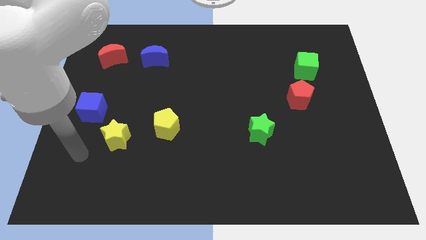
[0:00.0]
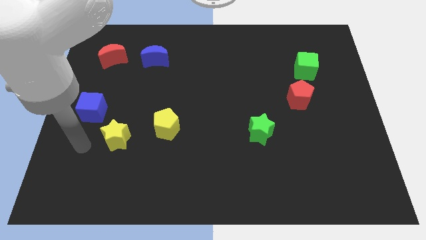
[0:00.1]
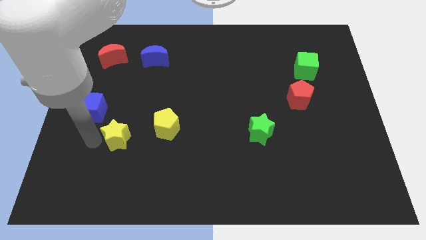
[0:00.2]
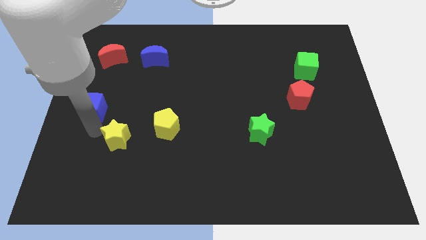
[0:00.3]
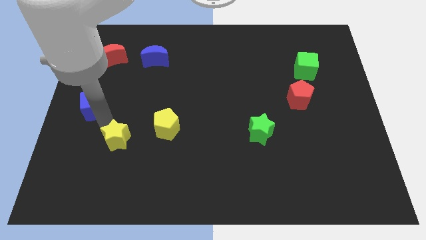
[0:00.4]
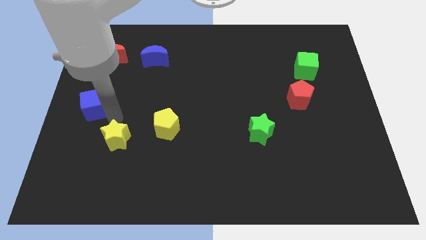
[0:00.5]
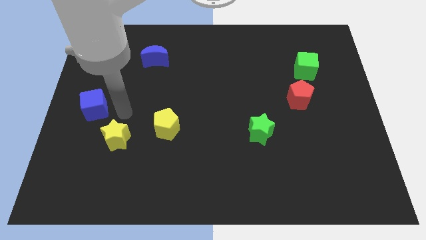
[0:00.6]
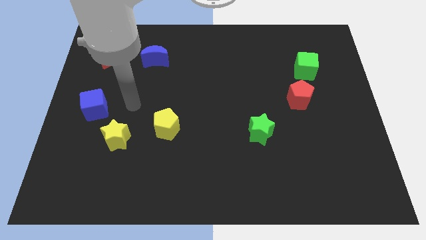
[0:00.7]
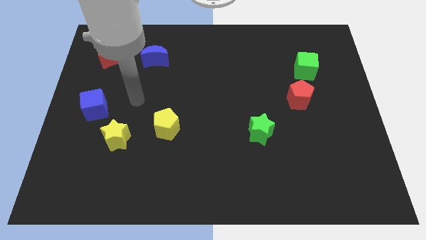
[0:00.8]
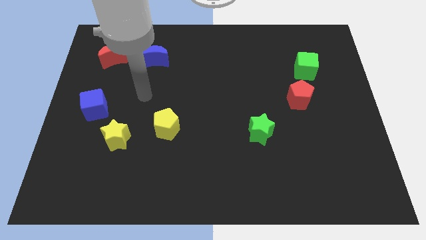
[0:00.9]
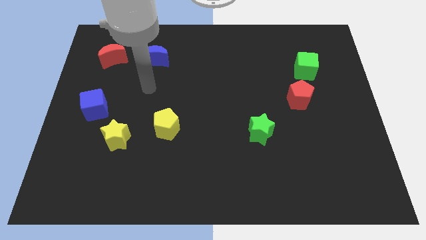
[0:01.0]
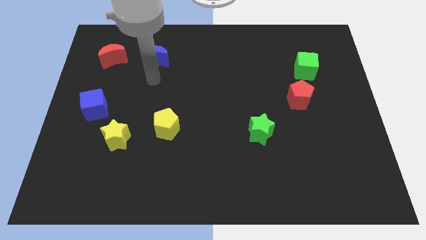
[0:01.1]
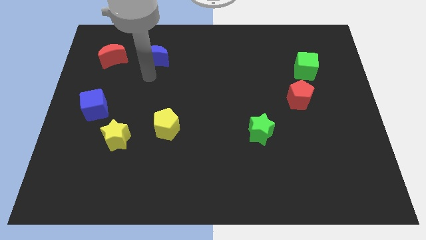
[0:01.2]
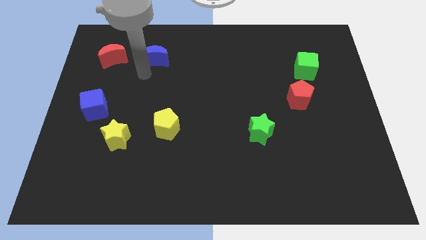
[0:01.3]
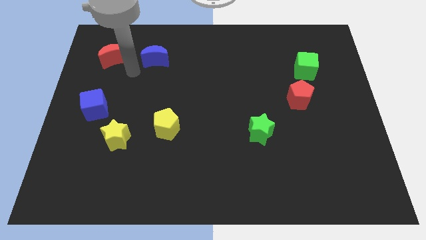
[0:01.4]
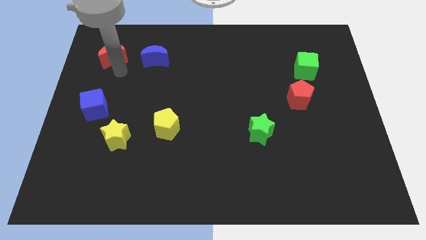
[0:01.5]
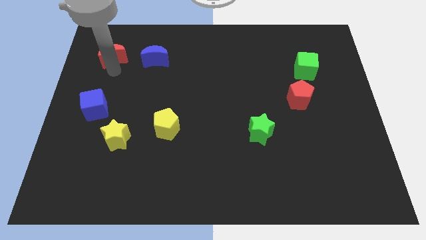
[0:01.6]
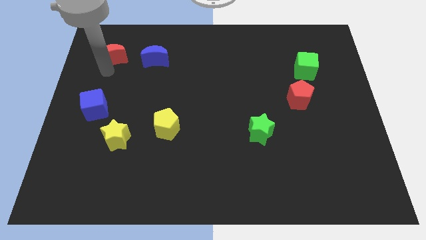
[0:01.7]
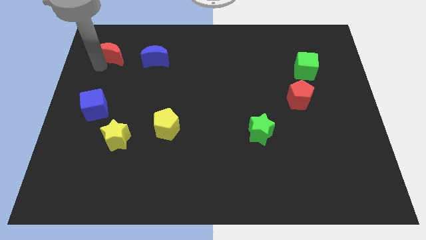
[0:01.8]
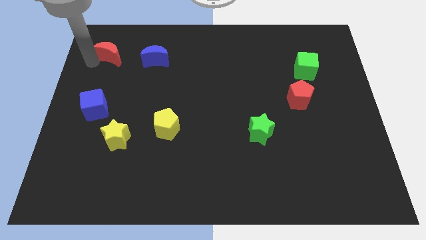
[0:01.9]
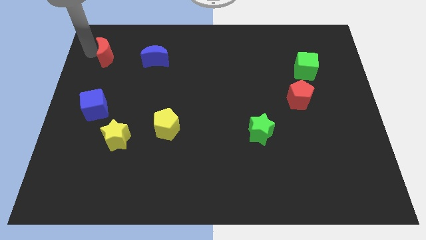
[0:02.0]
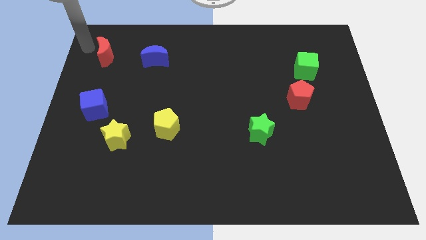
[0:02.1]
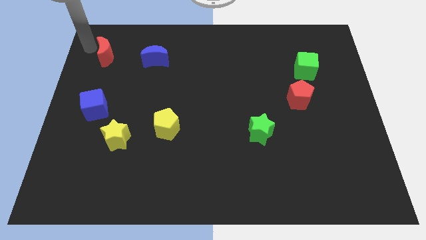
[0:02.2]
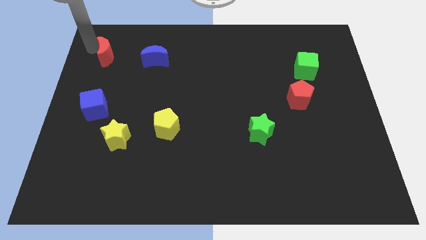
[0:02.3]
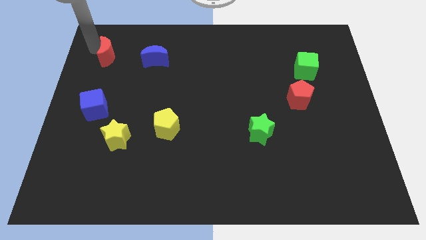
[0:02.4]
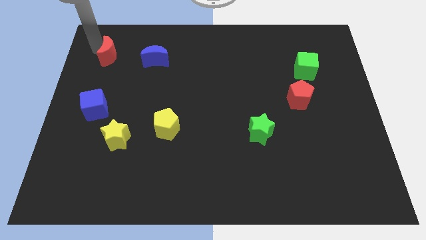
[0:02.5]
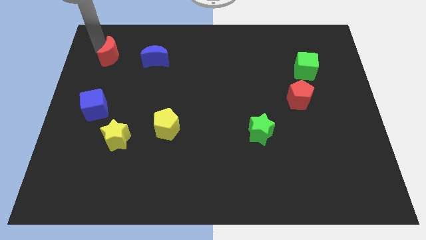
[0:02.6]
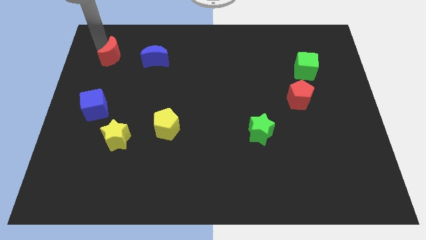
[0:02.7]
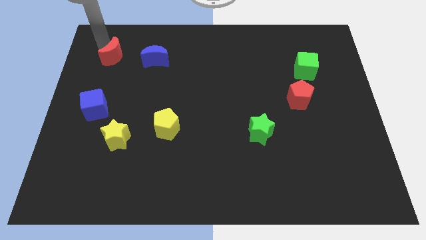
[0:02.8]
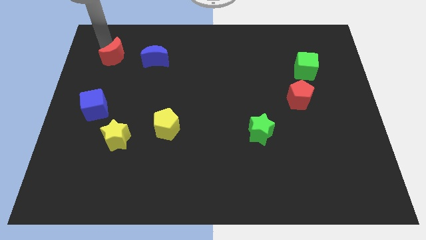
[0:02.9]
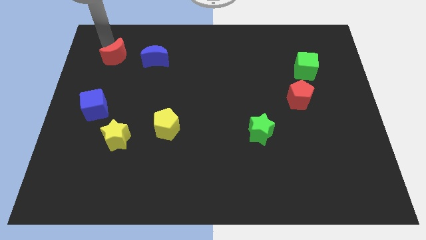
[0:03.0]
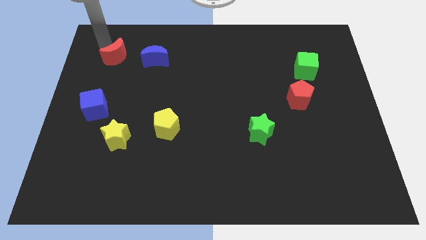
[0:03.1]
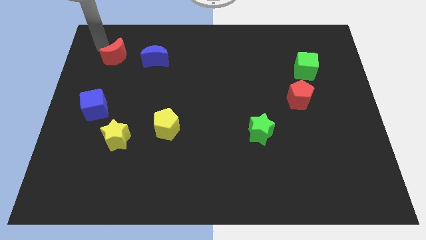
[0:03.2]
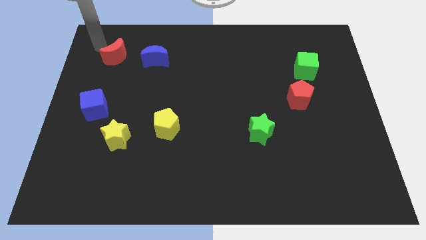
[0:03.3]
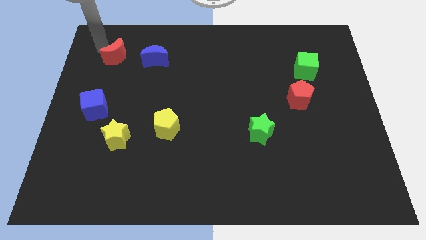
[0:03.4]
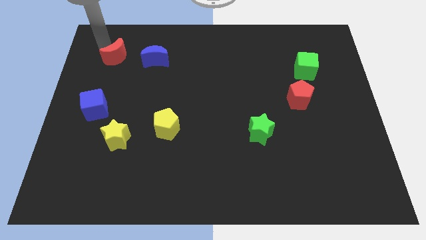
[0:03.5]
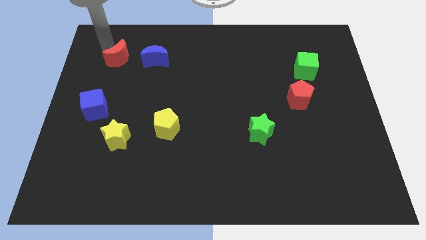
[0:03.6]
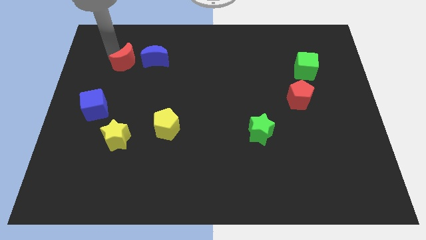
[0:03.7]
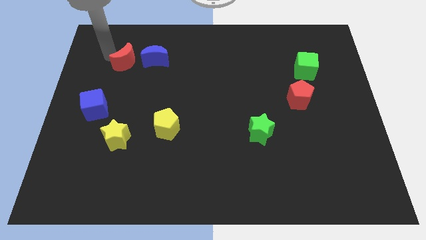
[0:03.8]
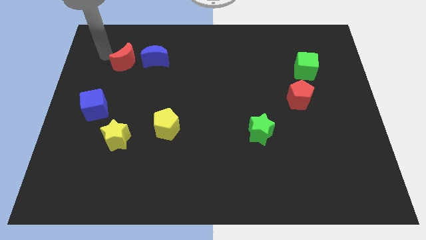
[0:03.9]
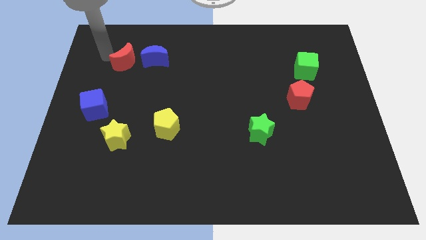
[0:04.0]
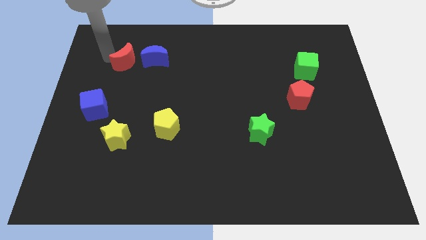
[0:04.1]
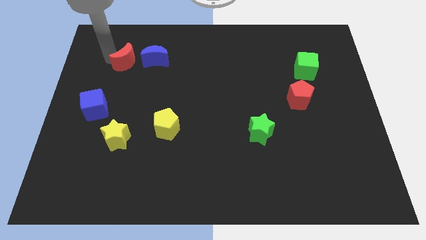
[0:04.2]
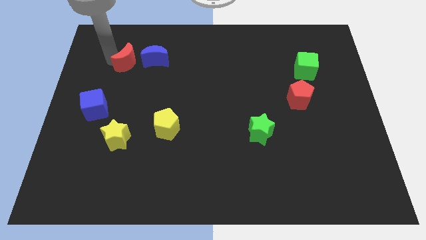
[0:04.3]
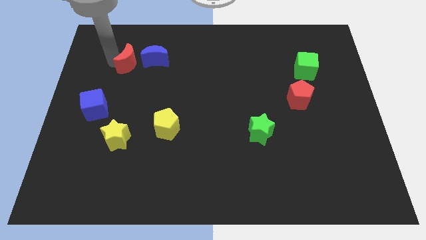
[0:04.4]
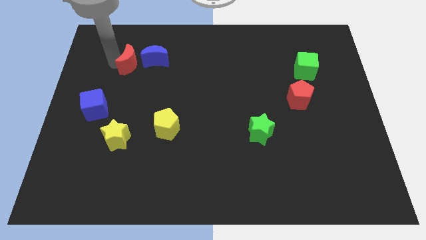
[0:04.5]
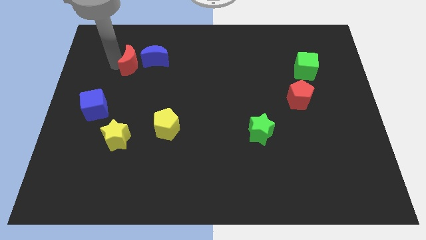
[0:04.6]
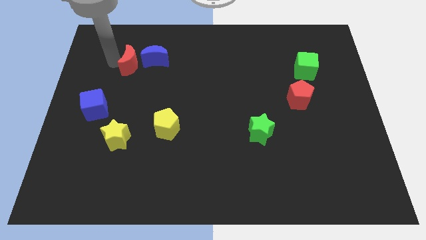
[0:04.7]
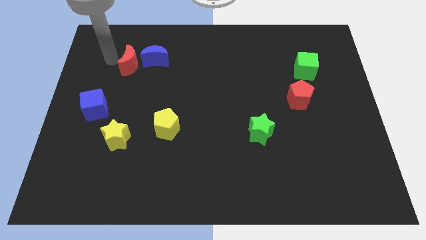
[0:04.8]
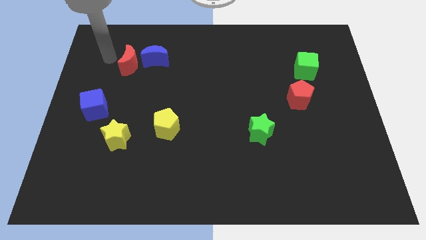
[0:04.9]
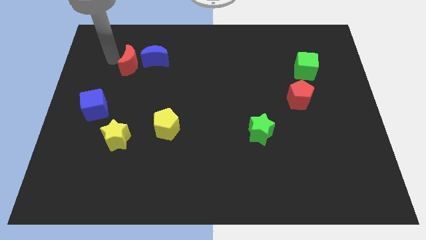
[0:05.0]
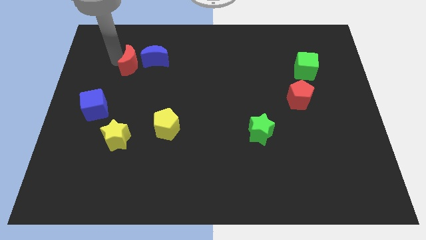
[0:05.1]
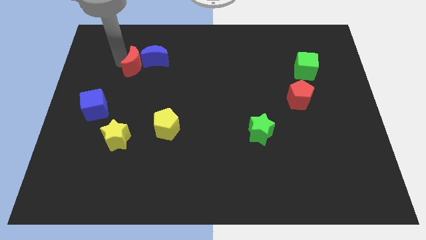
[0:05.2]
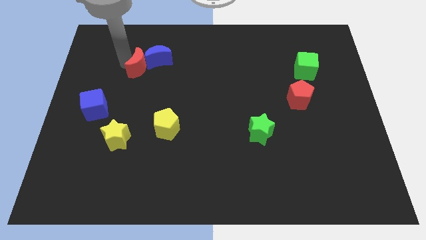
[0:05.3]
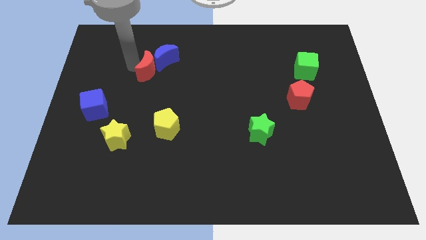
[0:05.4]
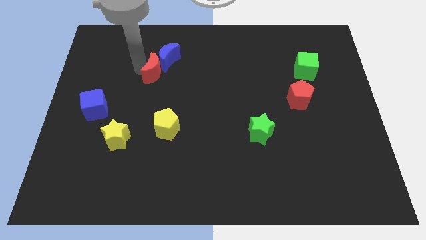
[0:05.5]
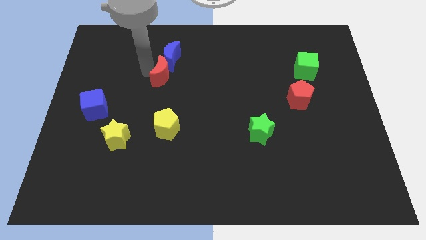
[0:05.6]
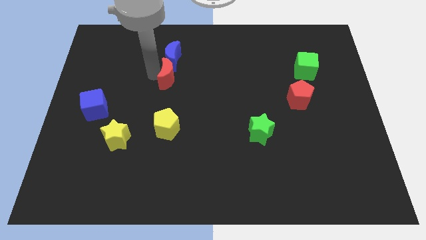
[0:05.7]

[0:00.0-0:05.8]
push the red moon diagonally down and to the right of the blue moon

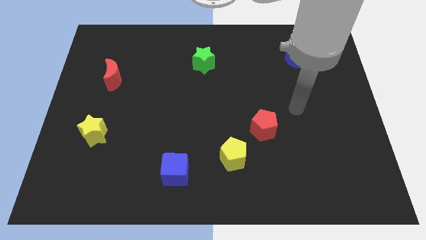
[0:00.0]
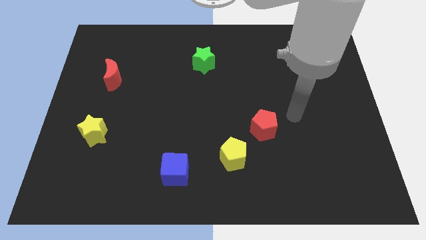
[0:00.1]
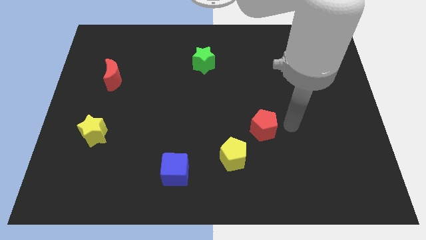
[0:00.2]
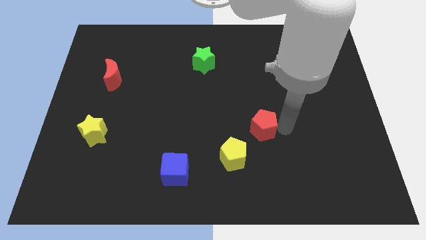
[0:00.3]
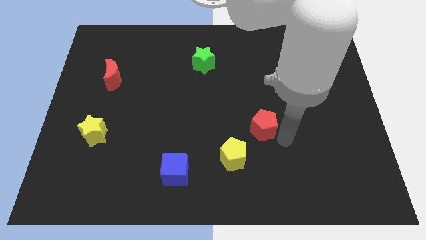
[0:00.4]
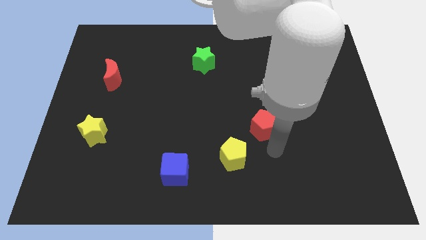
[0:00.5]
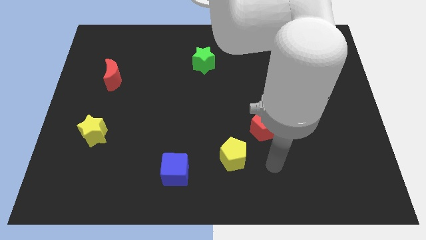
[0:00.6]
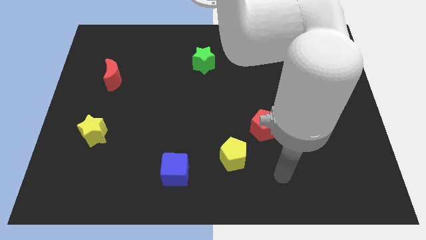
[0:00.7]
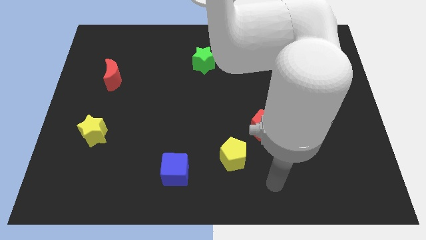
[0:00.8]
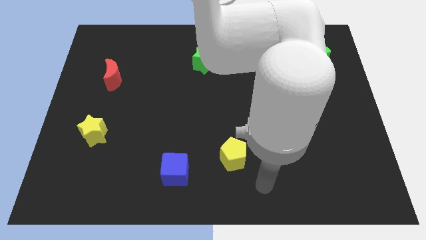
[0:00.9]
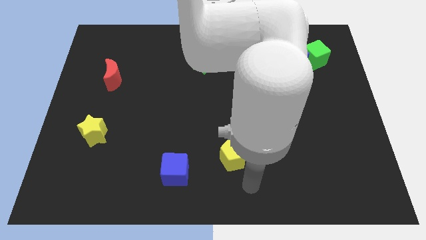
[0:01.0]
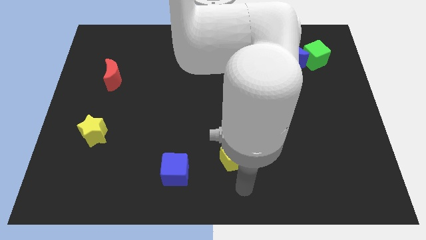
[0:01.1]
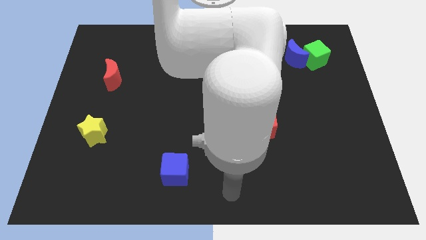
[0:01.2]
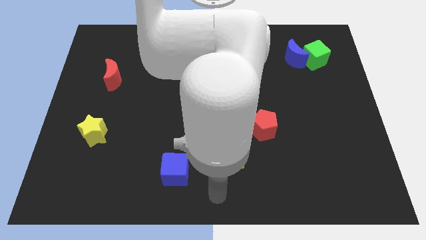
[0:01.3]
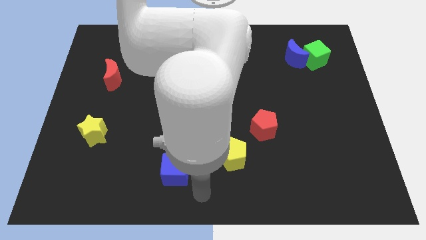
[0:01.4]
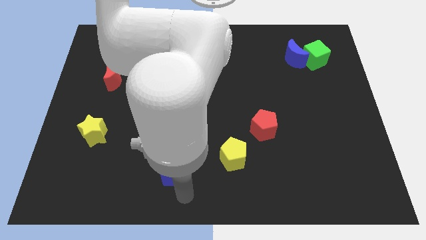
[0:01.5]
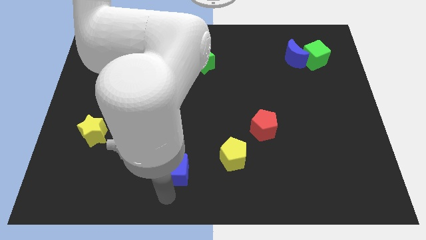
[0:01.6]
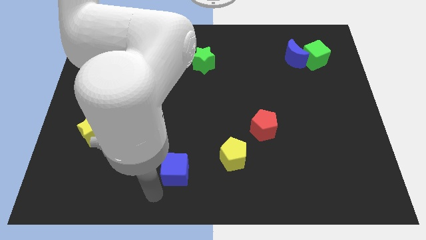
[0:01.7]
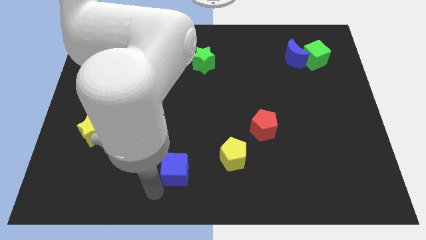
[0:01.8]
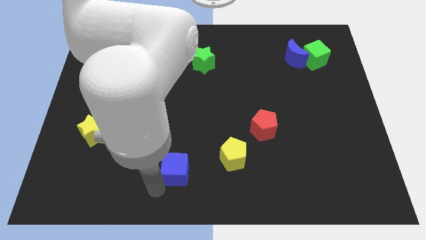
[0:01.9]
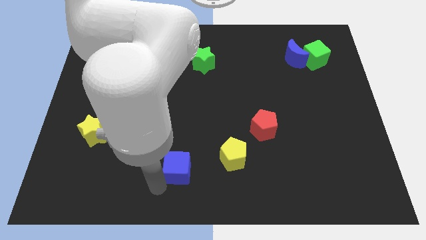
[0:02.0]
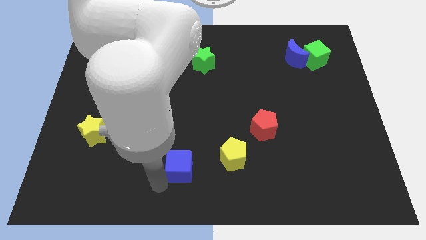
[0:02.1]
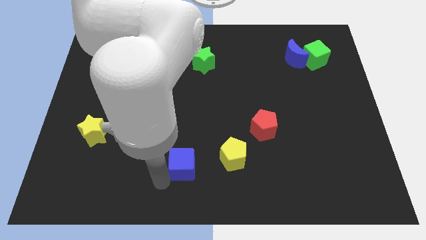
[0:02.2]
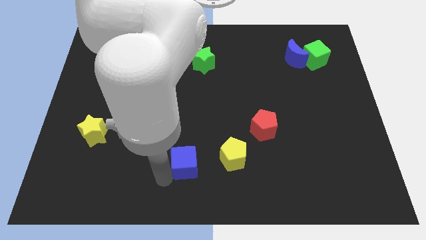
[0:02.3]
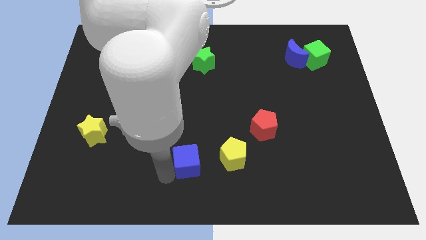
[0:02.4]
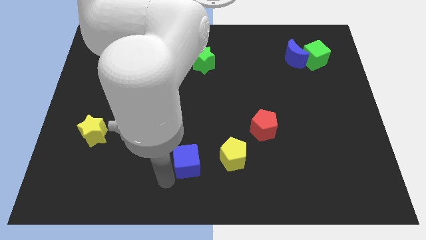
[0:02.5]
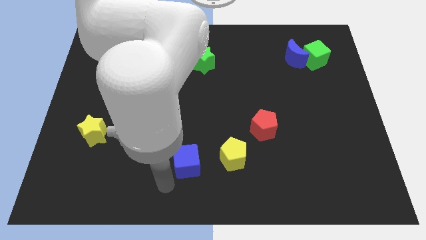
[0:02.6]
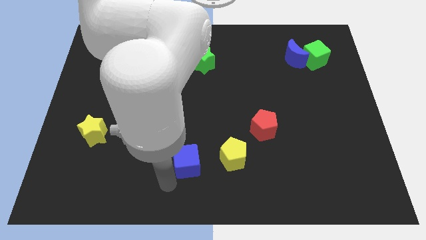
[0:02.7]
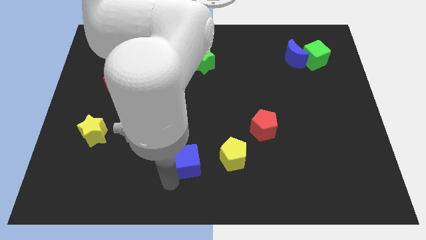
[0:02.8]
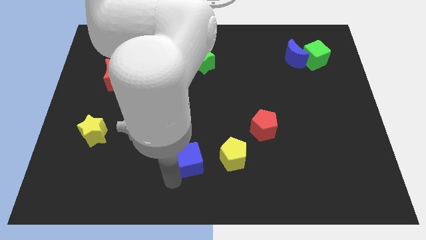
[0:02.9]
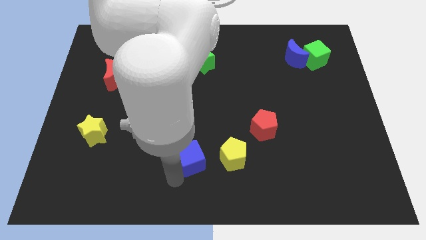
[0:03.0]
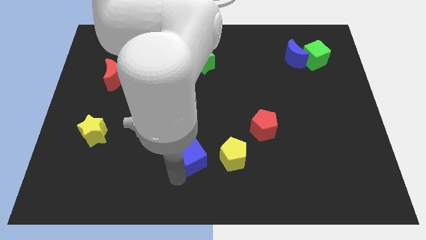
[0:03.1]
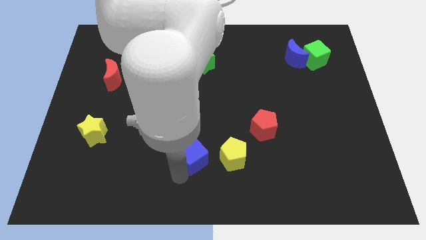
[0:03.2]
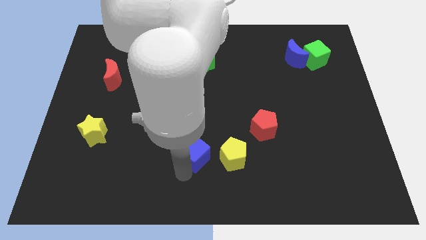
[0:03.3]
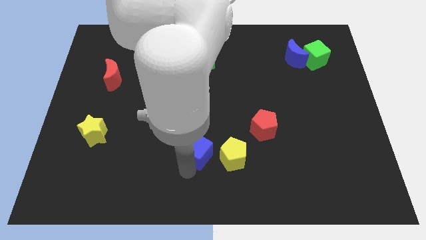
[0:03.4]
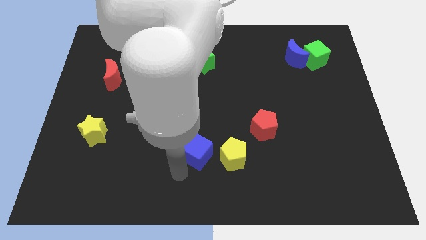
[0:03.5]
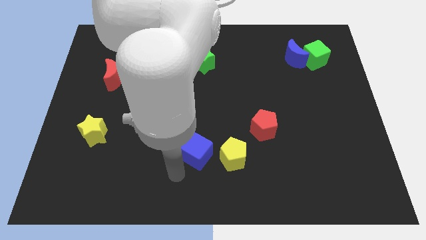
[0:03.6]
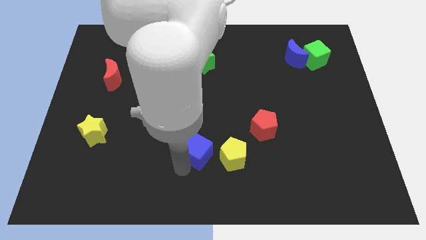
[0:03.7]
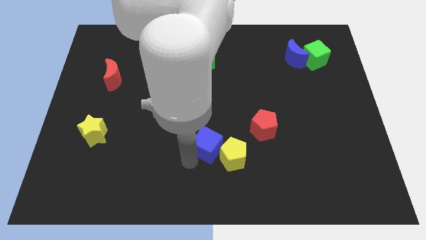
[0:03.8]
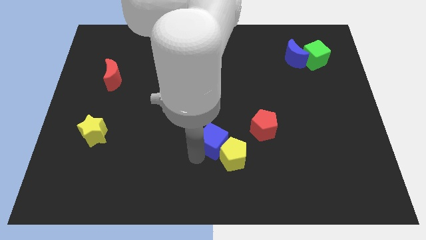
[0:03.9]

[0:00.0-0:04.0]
push the blue cube above the yellow pentagon
